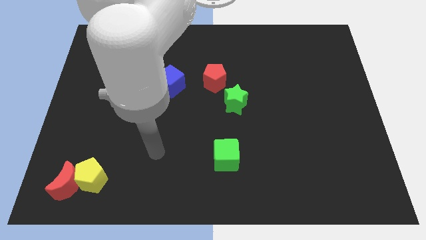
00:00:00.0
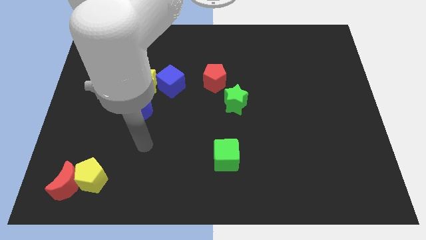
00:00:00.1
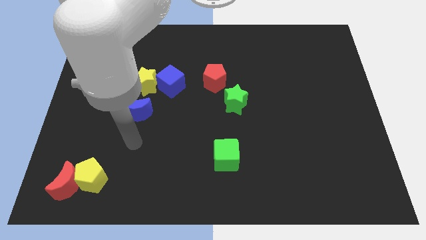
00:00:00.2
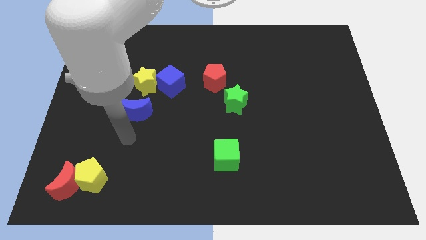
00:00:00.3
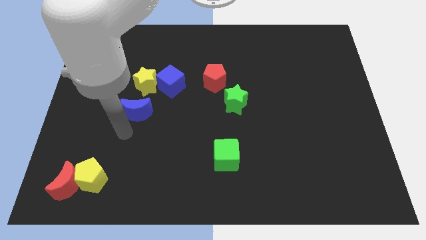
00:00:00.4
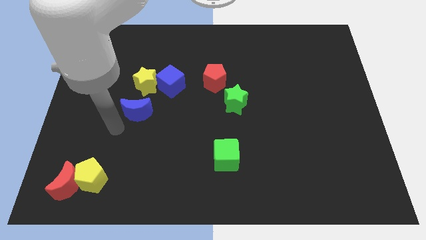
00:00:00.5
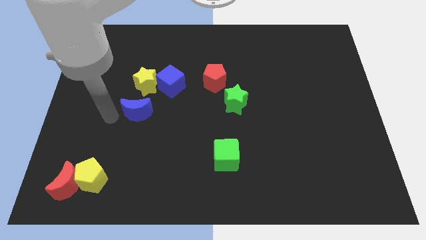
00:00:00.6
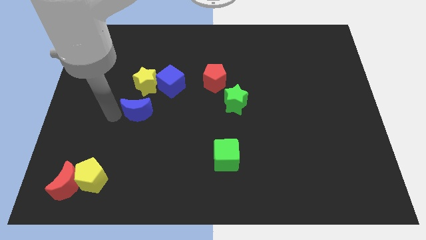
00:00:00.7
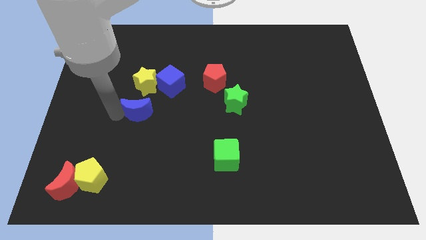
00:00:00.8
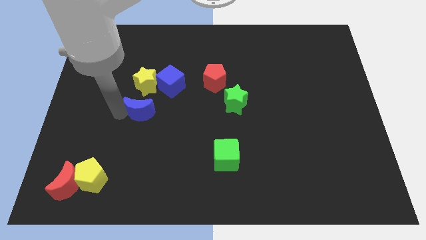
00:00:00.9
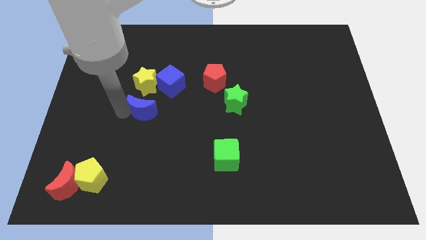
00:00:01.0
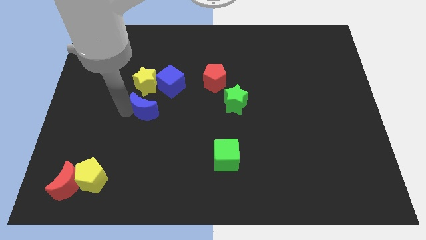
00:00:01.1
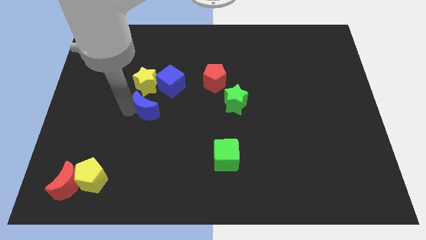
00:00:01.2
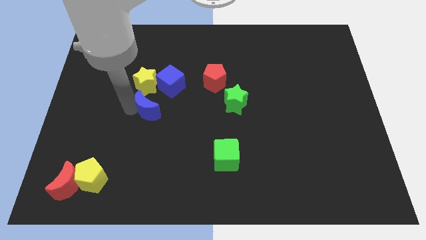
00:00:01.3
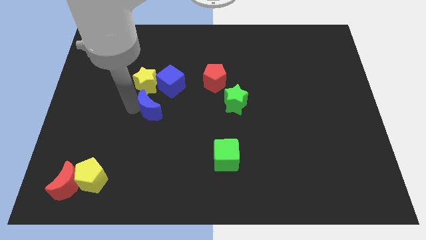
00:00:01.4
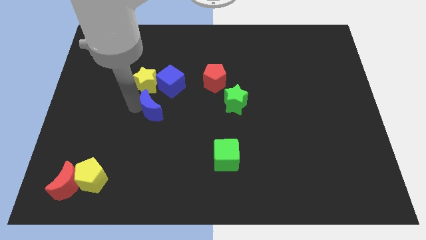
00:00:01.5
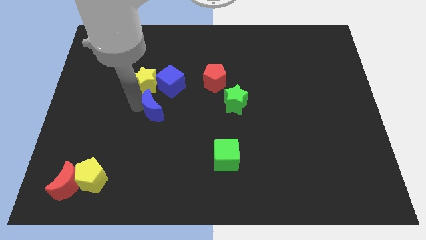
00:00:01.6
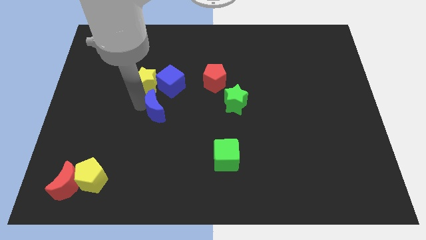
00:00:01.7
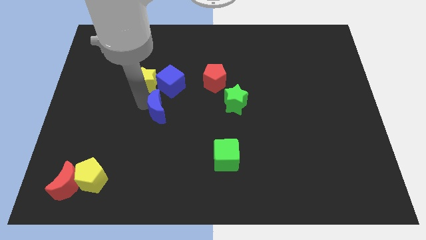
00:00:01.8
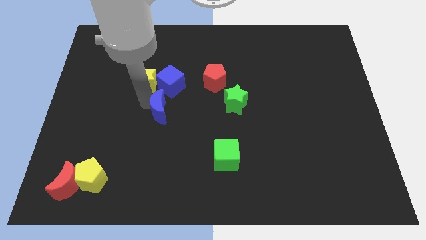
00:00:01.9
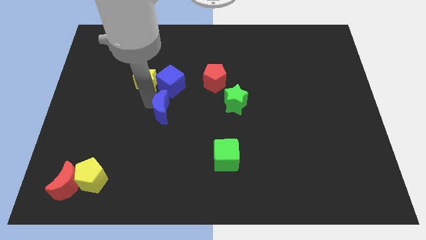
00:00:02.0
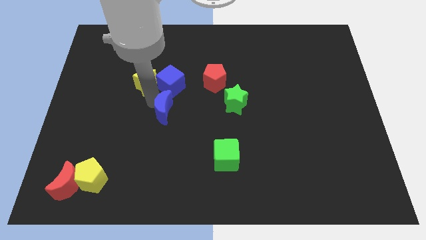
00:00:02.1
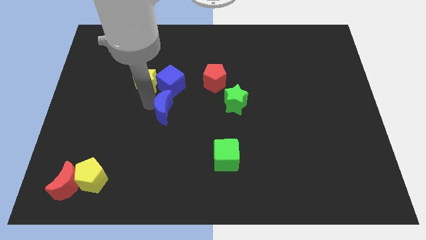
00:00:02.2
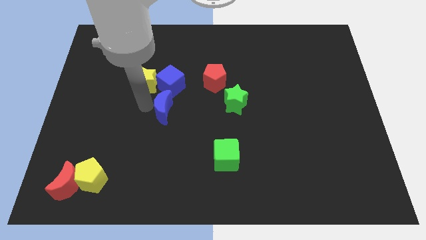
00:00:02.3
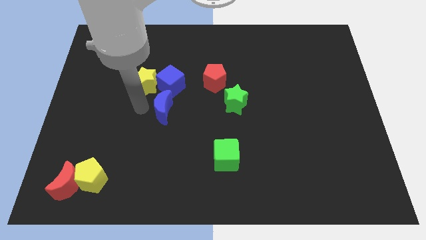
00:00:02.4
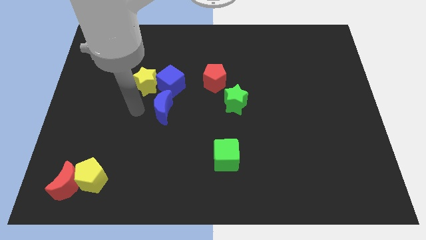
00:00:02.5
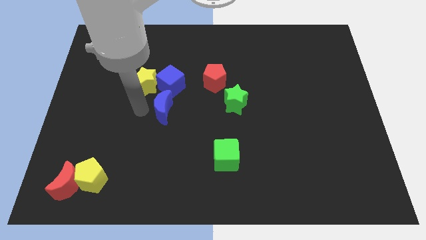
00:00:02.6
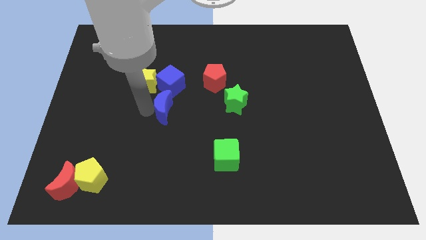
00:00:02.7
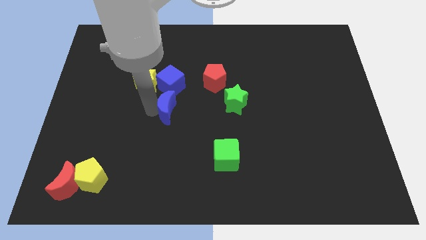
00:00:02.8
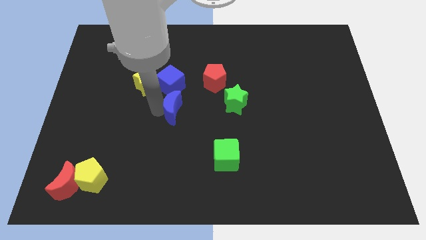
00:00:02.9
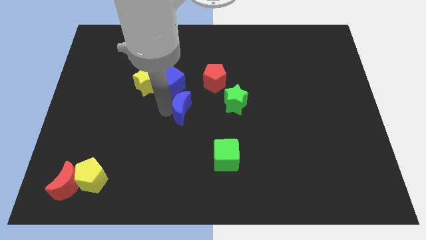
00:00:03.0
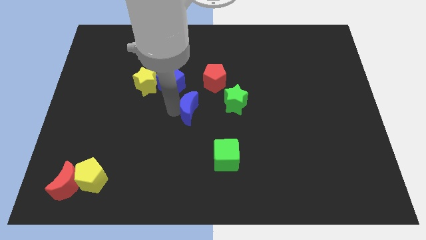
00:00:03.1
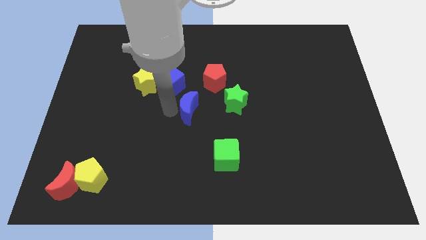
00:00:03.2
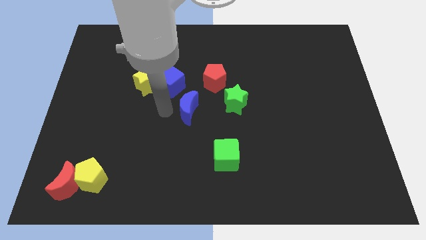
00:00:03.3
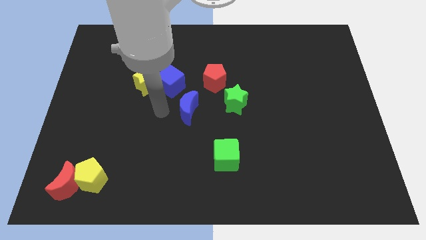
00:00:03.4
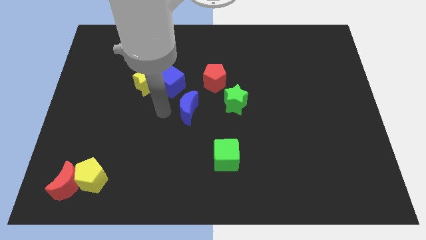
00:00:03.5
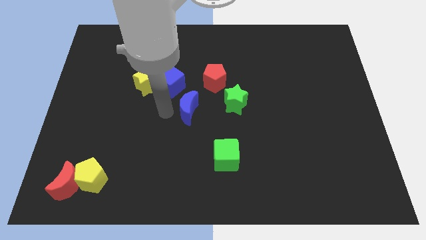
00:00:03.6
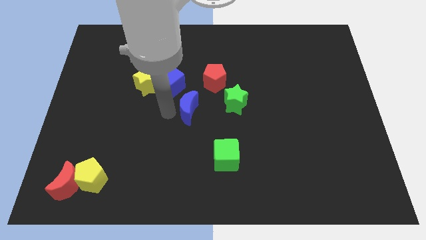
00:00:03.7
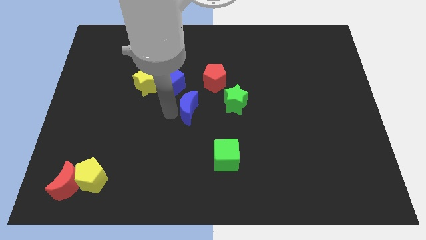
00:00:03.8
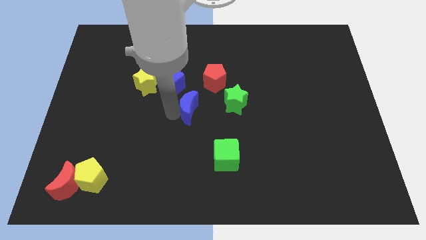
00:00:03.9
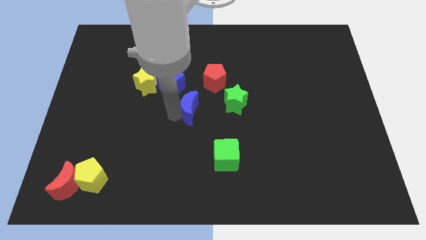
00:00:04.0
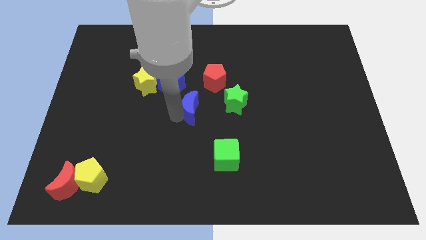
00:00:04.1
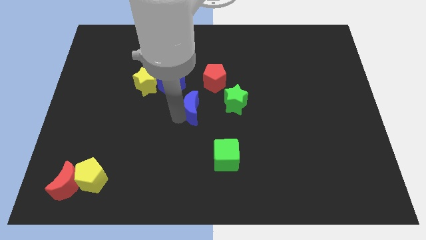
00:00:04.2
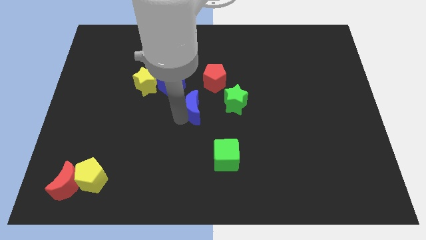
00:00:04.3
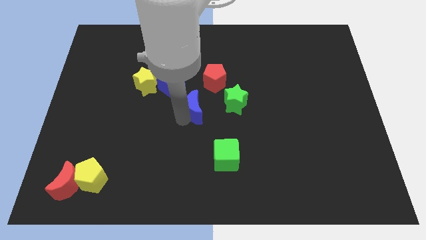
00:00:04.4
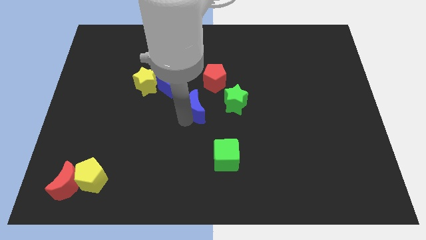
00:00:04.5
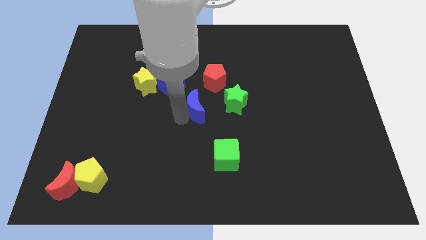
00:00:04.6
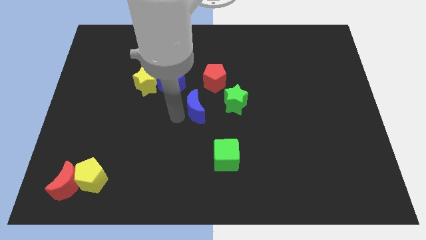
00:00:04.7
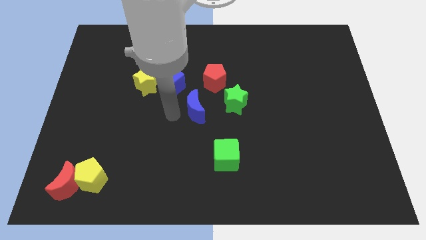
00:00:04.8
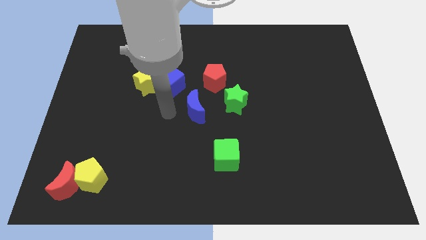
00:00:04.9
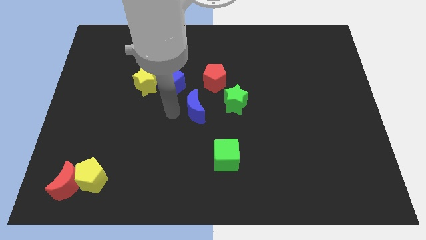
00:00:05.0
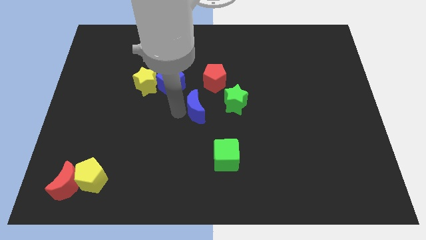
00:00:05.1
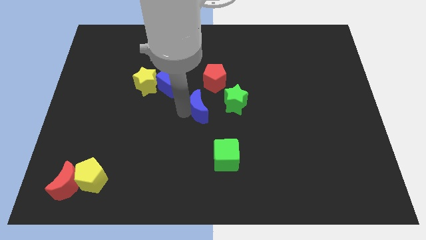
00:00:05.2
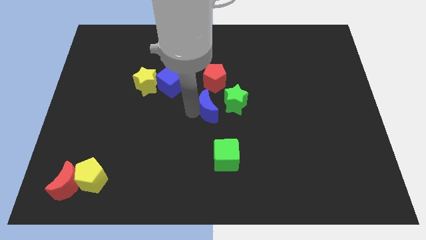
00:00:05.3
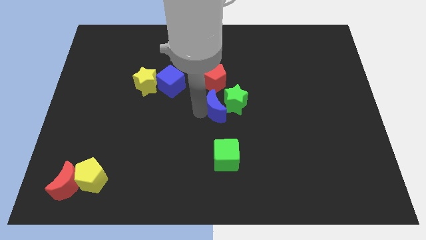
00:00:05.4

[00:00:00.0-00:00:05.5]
put the blue moon towards the green star

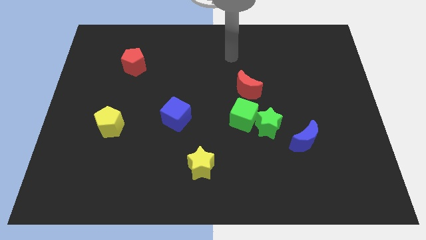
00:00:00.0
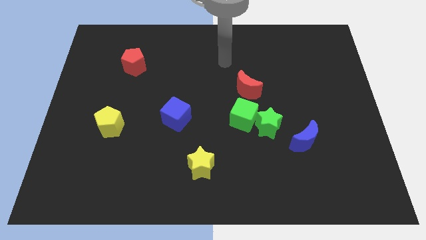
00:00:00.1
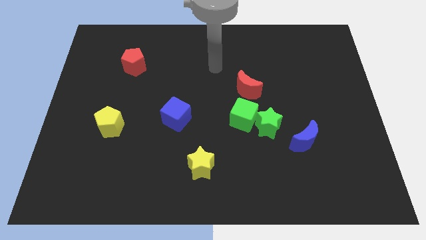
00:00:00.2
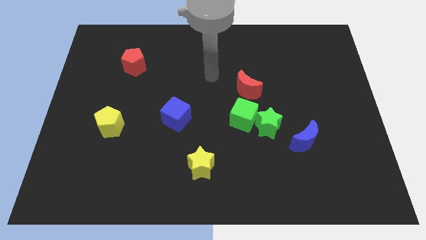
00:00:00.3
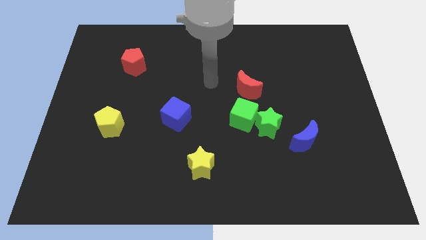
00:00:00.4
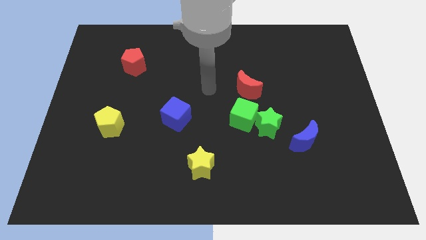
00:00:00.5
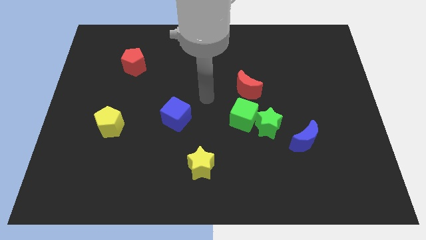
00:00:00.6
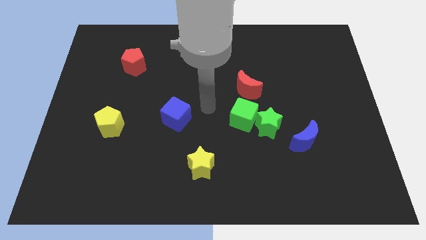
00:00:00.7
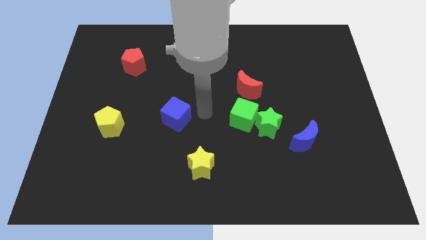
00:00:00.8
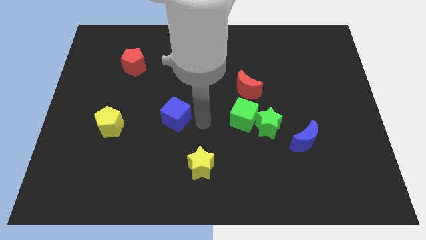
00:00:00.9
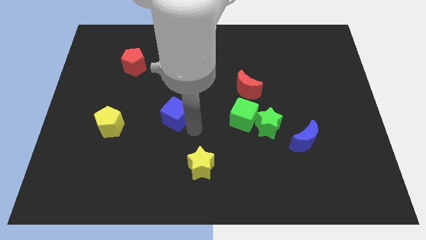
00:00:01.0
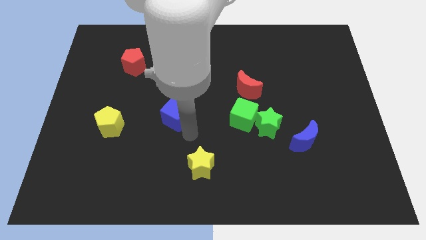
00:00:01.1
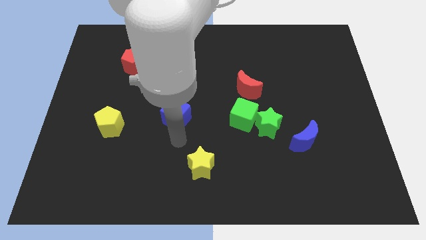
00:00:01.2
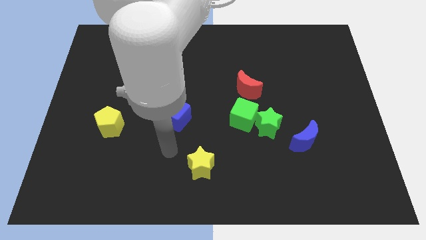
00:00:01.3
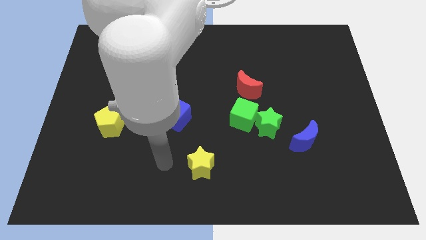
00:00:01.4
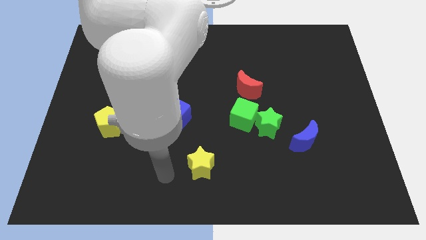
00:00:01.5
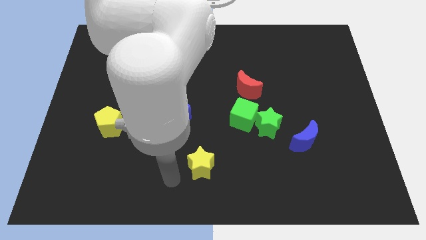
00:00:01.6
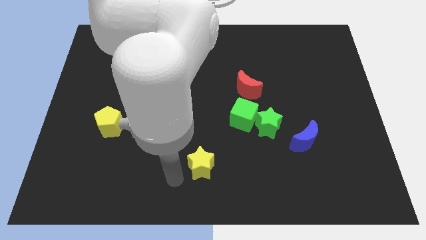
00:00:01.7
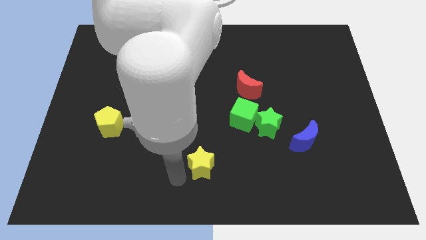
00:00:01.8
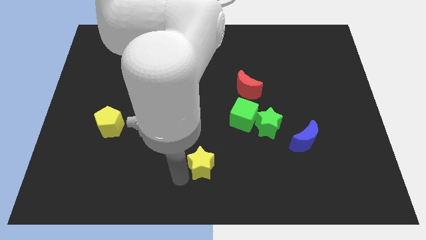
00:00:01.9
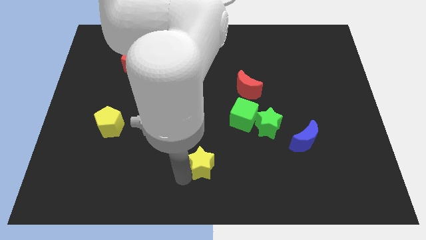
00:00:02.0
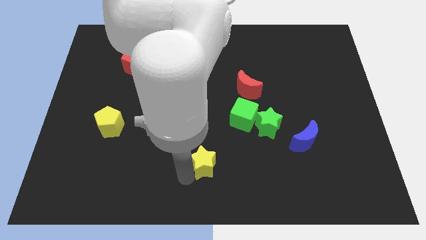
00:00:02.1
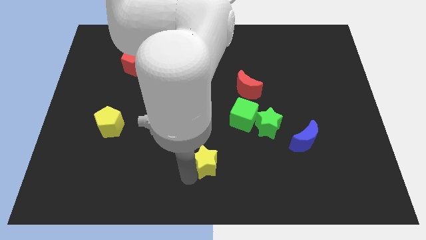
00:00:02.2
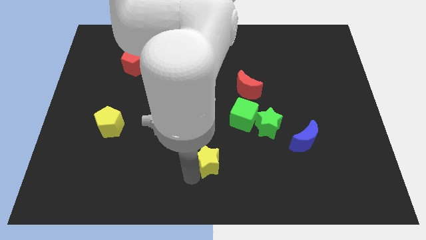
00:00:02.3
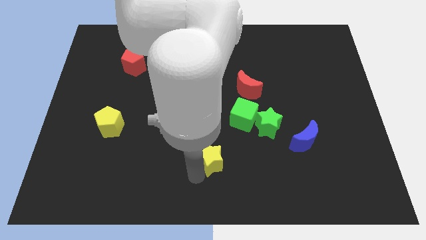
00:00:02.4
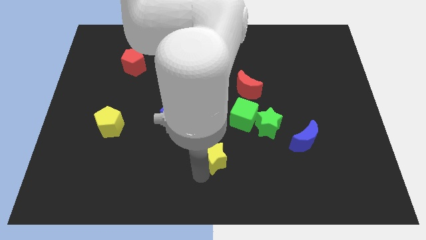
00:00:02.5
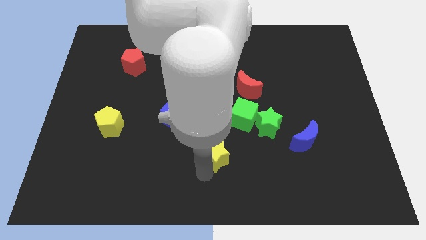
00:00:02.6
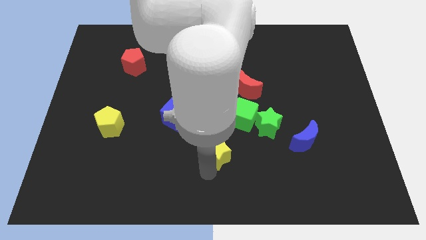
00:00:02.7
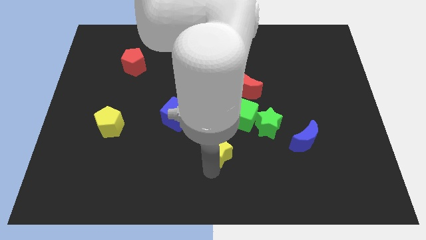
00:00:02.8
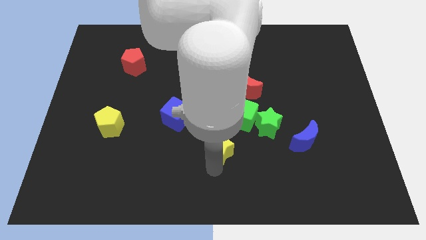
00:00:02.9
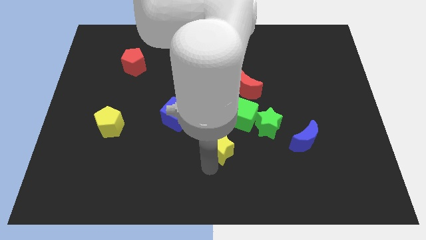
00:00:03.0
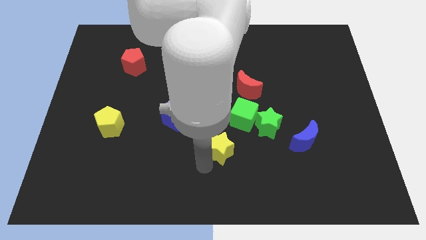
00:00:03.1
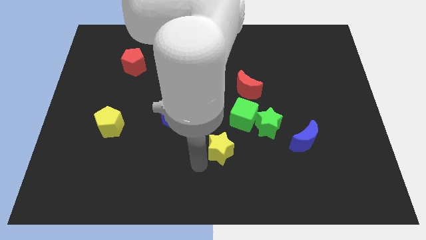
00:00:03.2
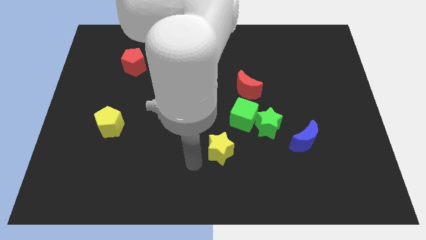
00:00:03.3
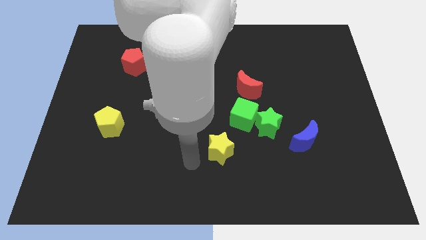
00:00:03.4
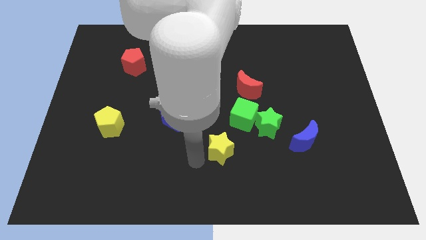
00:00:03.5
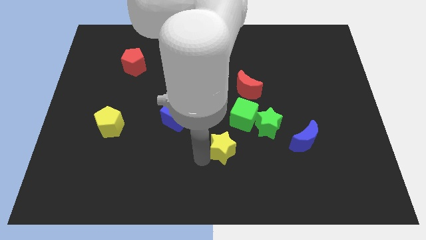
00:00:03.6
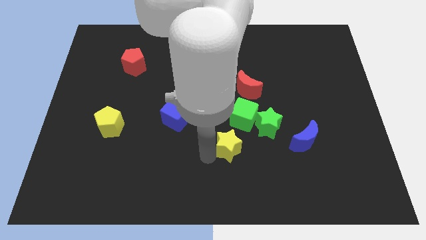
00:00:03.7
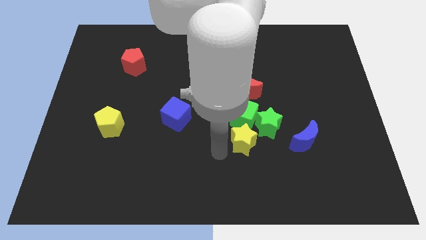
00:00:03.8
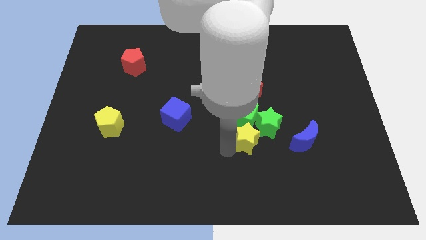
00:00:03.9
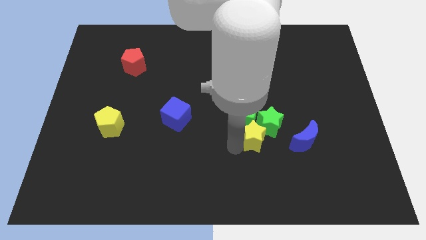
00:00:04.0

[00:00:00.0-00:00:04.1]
slide the yellow star to the green star
